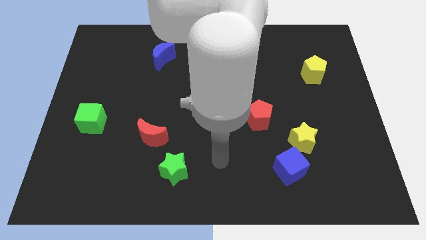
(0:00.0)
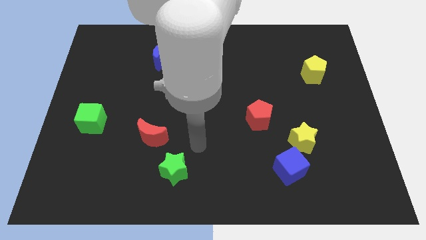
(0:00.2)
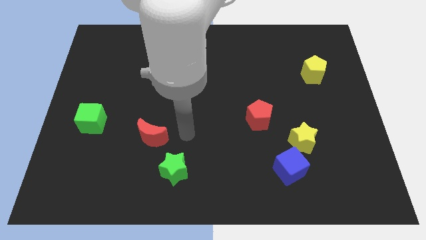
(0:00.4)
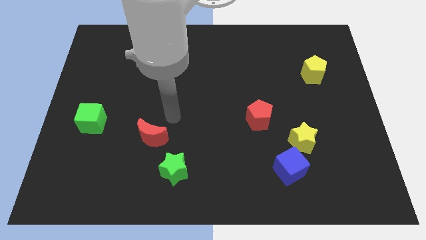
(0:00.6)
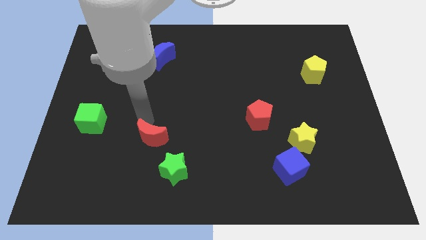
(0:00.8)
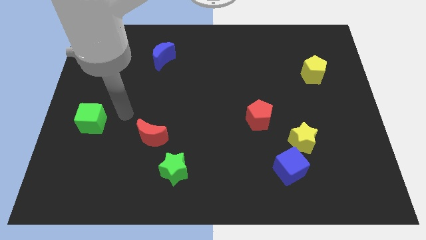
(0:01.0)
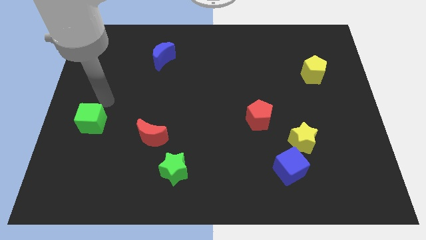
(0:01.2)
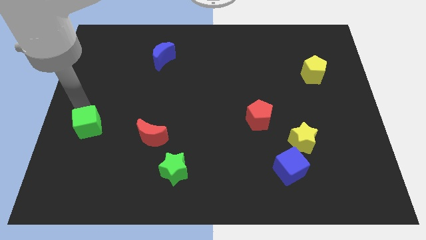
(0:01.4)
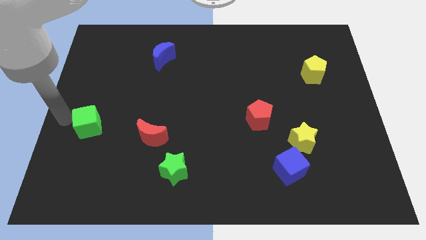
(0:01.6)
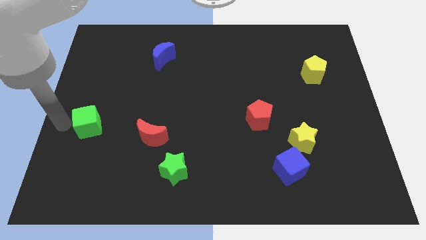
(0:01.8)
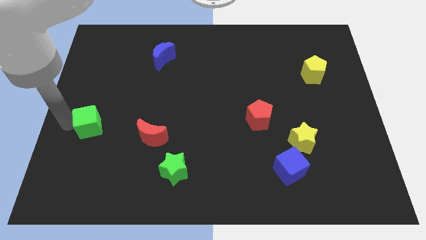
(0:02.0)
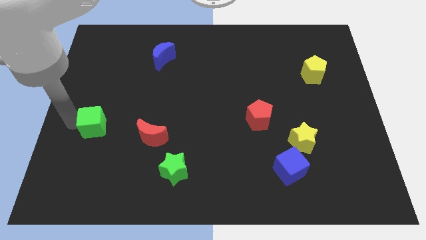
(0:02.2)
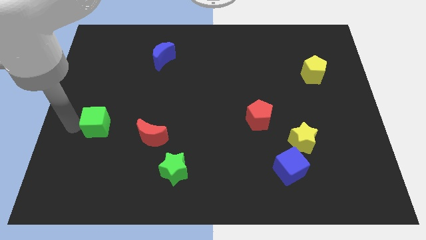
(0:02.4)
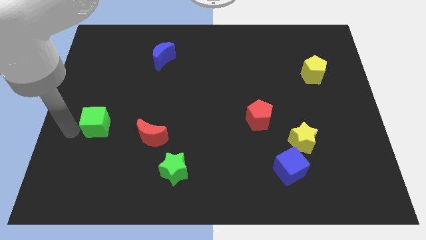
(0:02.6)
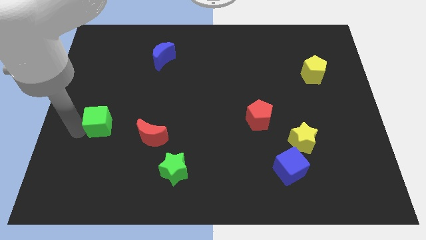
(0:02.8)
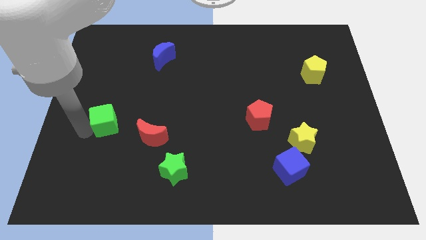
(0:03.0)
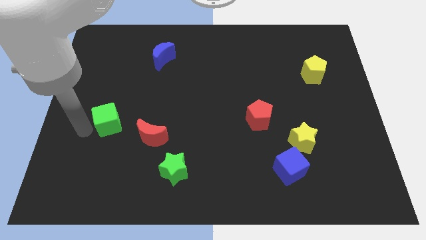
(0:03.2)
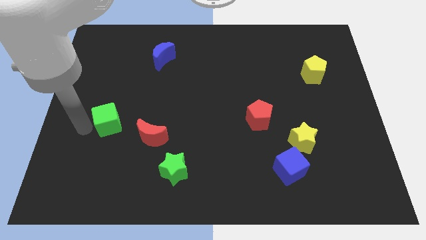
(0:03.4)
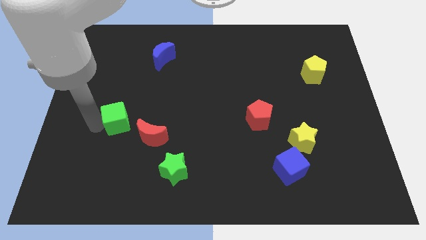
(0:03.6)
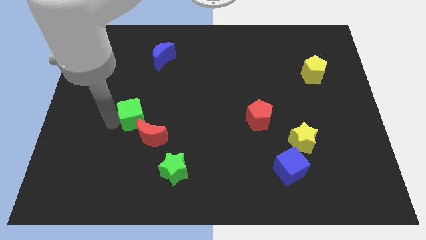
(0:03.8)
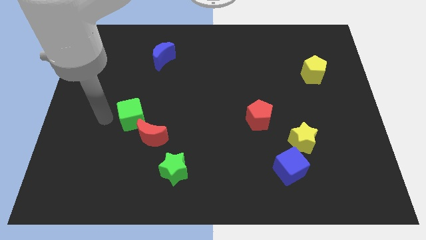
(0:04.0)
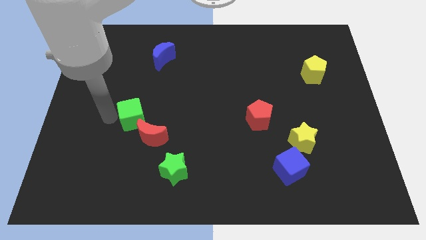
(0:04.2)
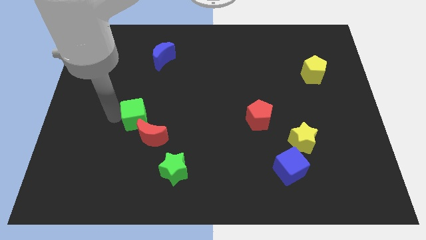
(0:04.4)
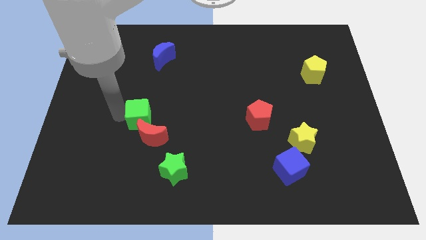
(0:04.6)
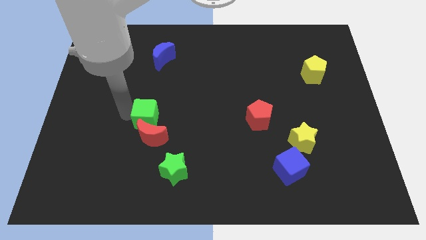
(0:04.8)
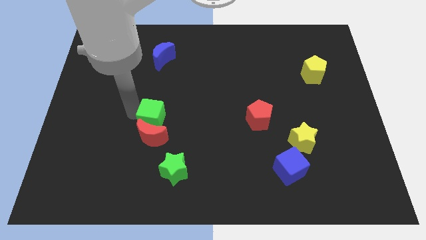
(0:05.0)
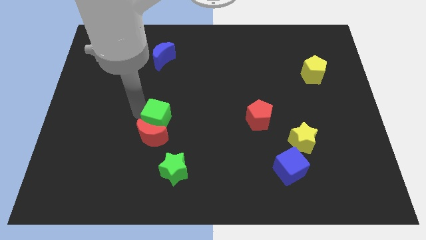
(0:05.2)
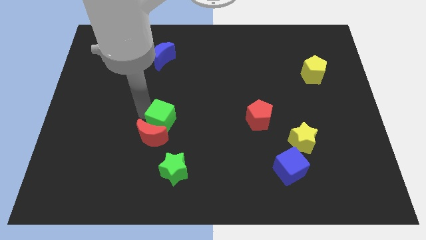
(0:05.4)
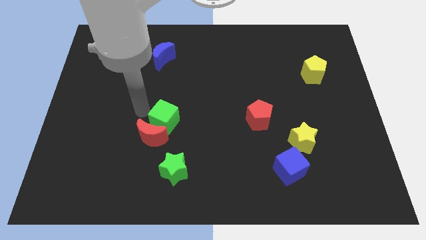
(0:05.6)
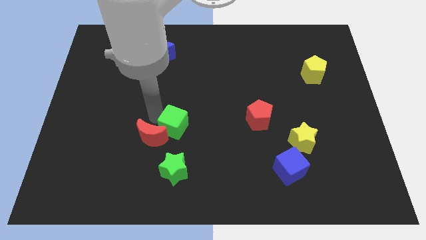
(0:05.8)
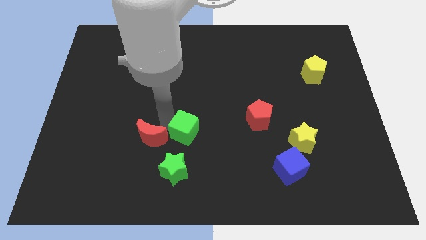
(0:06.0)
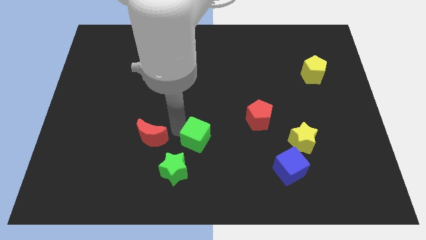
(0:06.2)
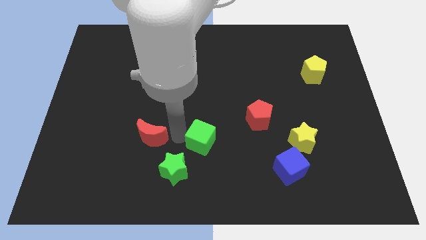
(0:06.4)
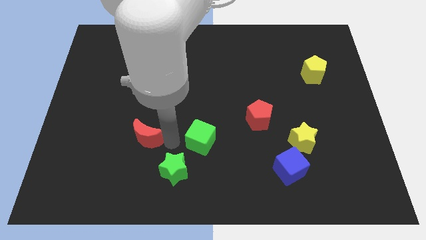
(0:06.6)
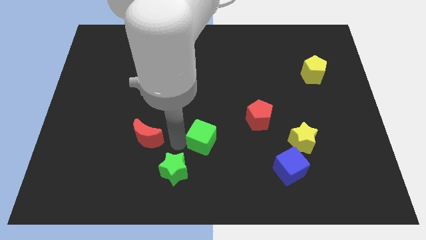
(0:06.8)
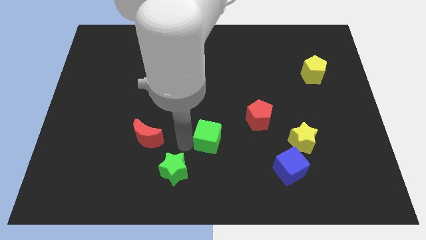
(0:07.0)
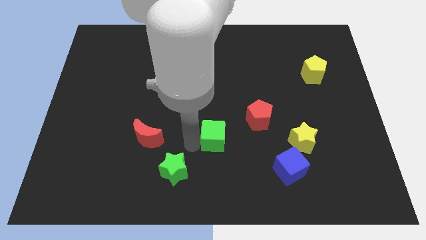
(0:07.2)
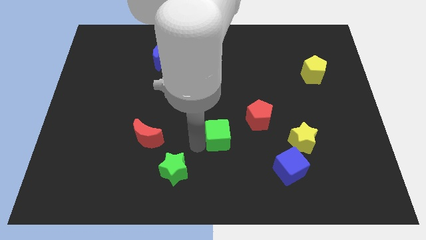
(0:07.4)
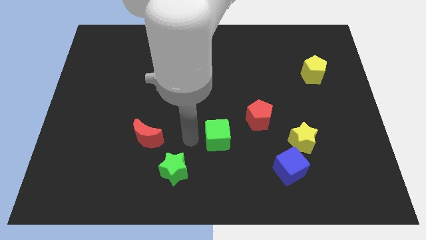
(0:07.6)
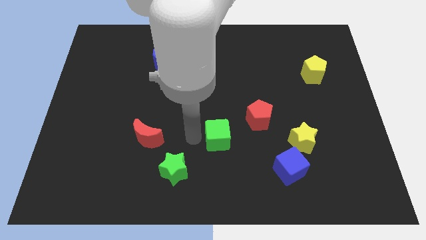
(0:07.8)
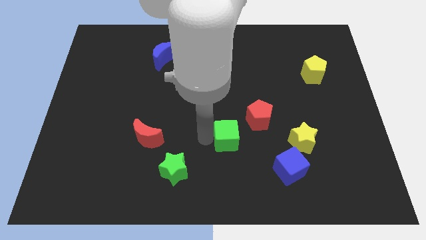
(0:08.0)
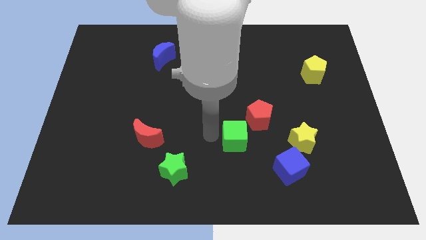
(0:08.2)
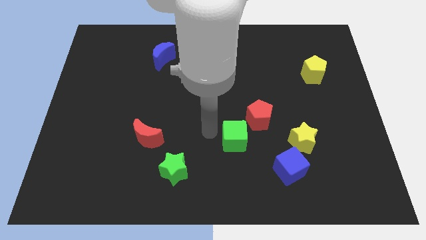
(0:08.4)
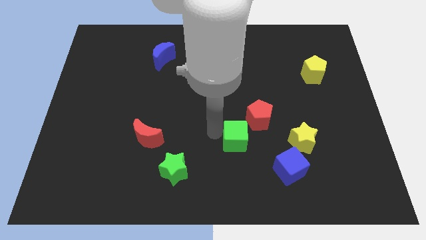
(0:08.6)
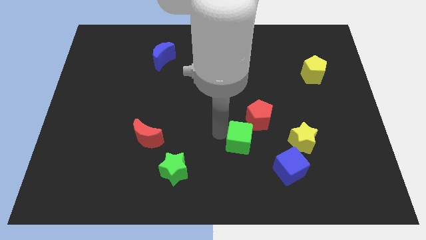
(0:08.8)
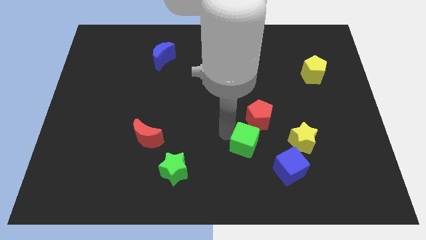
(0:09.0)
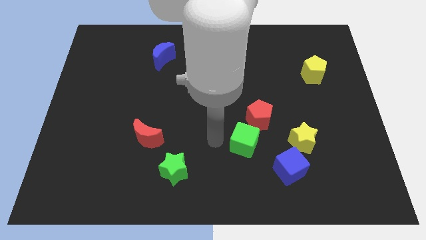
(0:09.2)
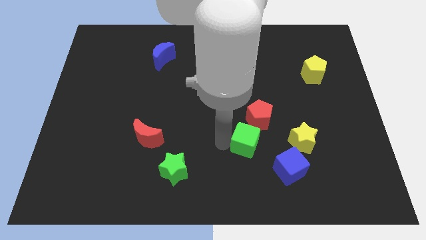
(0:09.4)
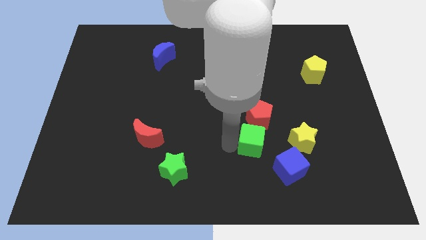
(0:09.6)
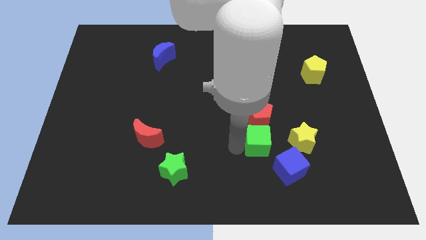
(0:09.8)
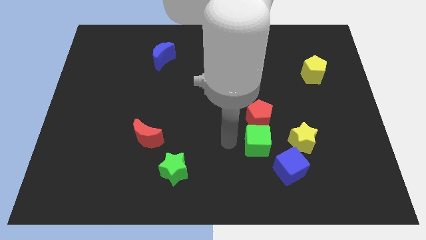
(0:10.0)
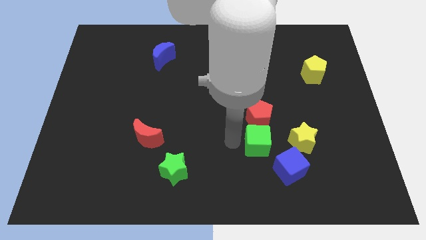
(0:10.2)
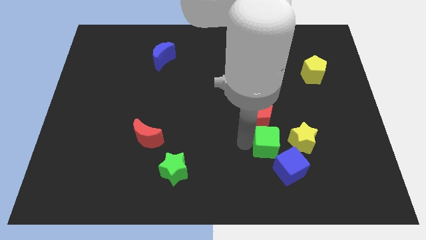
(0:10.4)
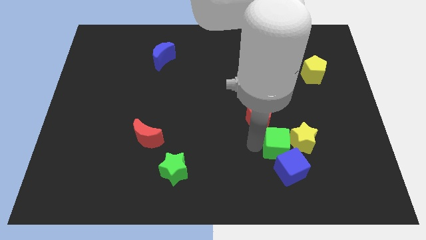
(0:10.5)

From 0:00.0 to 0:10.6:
move the green cube to the yellow star

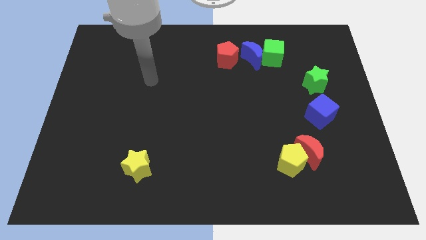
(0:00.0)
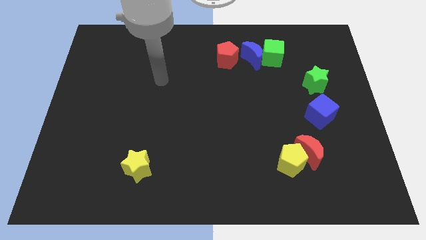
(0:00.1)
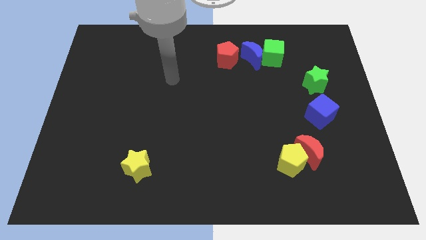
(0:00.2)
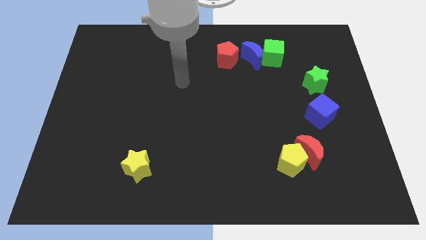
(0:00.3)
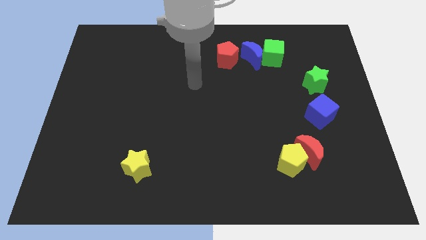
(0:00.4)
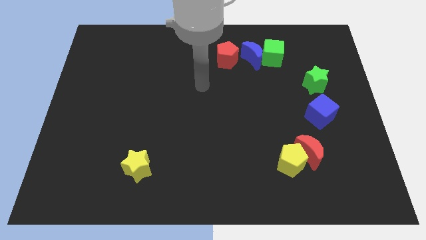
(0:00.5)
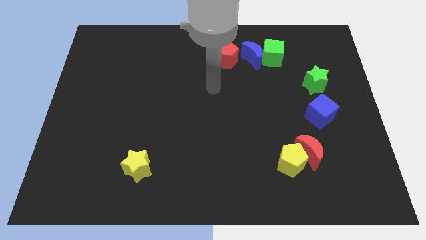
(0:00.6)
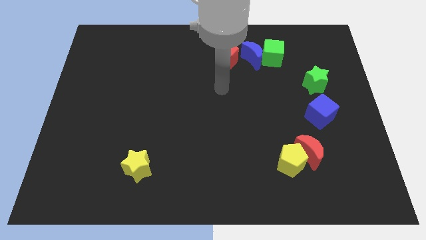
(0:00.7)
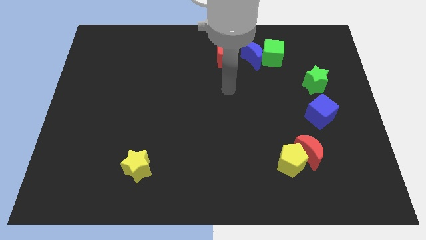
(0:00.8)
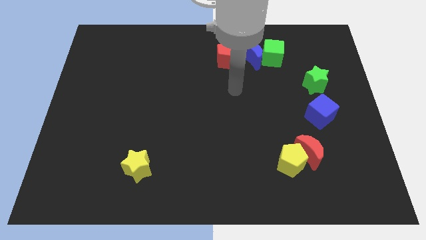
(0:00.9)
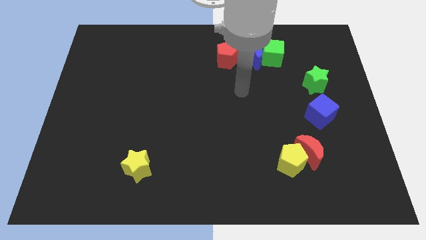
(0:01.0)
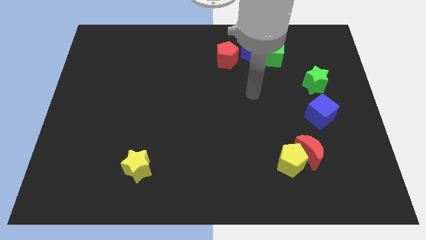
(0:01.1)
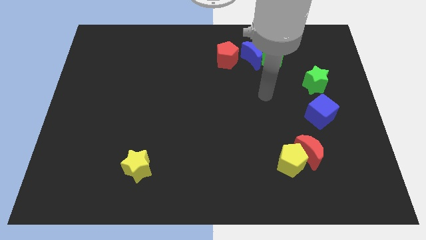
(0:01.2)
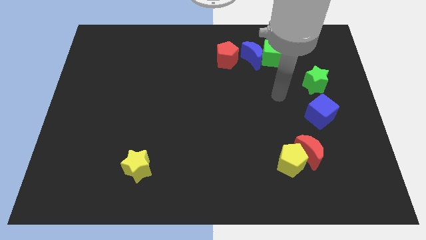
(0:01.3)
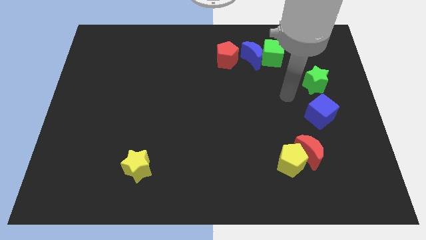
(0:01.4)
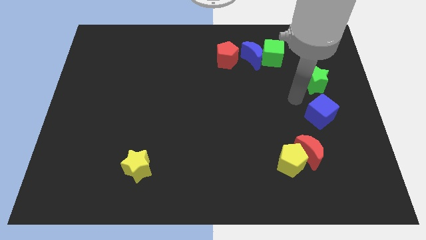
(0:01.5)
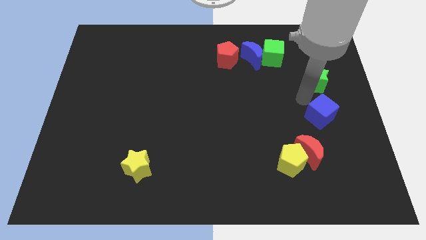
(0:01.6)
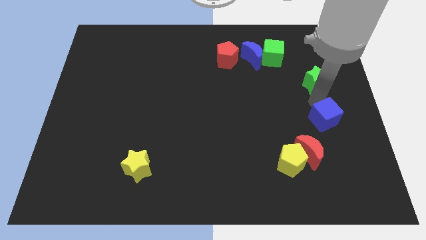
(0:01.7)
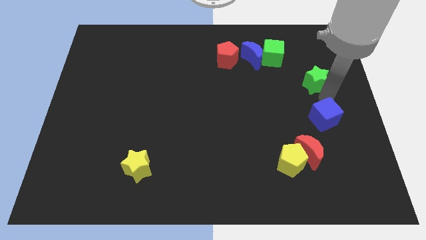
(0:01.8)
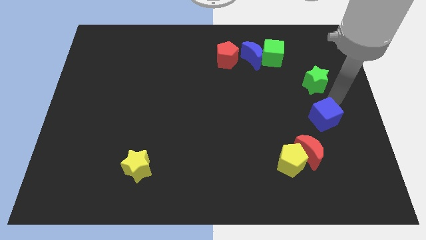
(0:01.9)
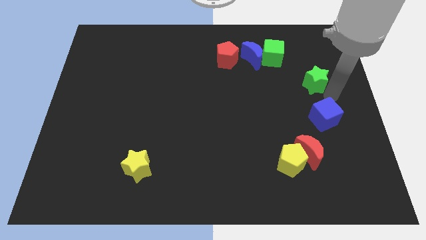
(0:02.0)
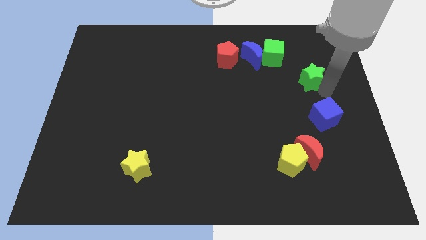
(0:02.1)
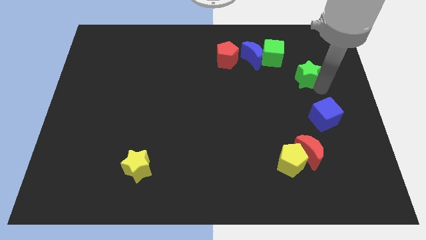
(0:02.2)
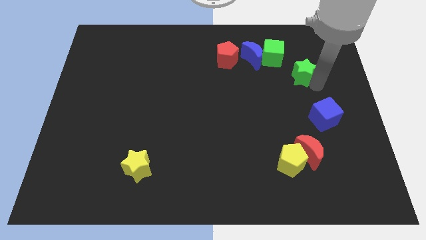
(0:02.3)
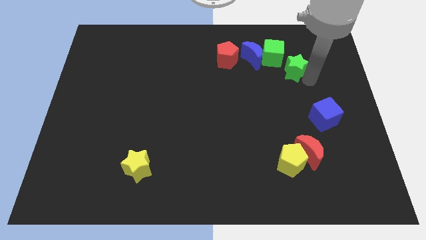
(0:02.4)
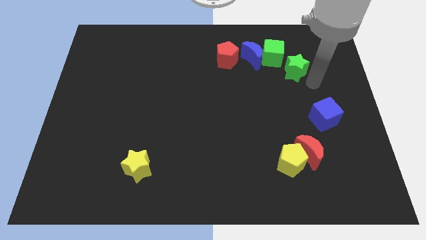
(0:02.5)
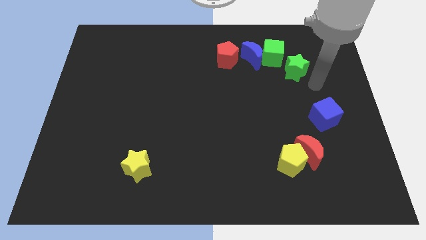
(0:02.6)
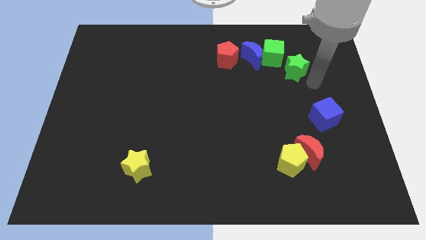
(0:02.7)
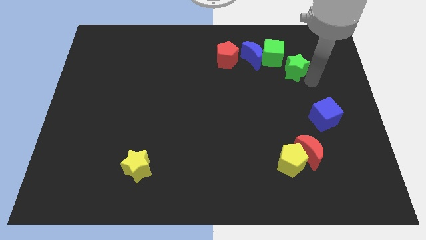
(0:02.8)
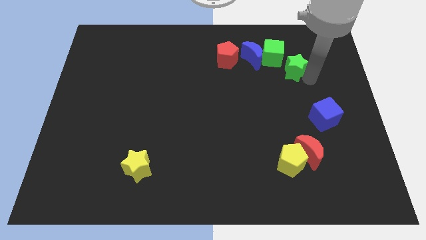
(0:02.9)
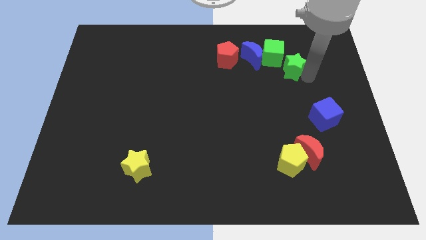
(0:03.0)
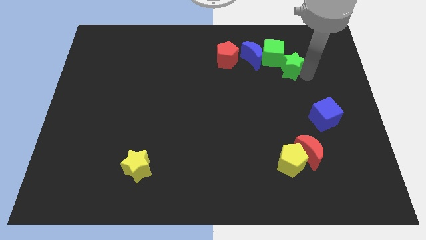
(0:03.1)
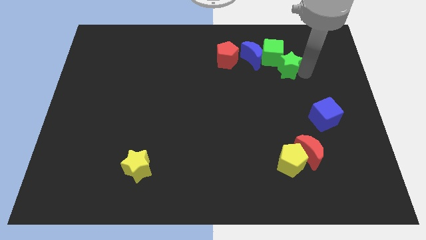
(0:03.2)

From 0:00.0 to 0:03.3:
slide the green star close to the green cube
